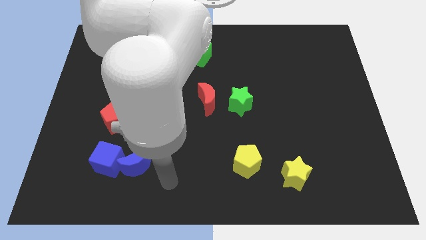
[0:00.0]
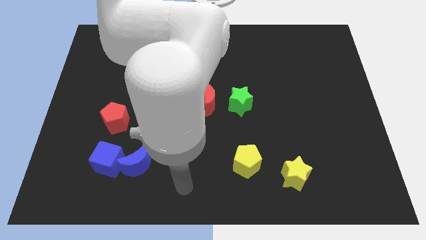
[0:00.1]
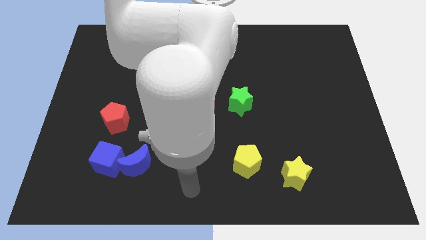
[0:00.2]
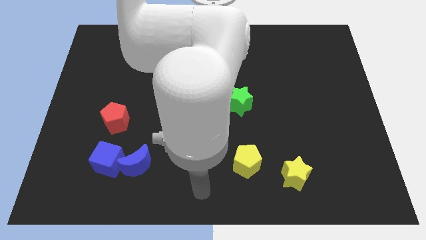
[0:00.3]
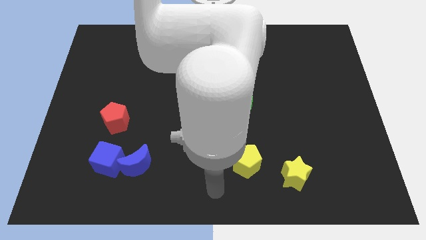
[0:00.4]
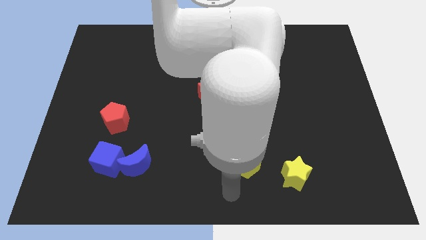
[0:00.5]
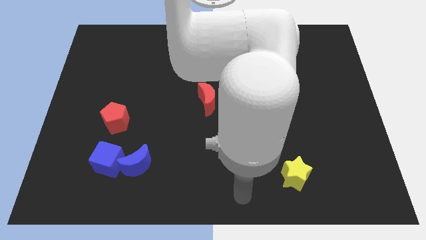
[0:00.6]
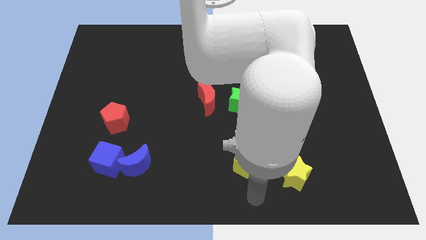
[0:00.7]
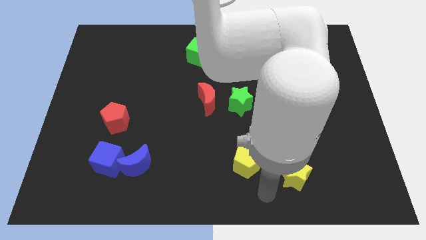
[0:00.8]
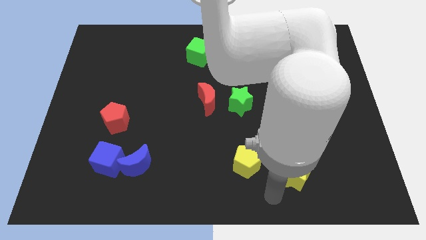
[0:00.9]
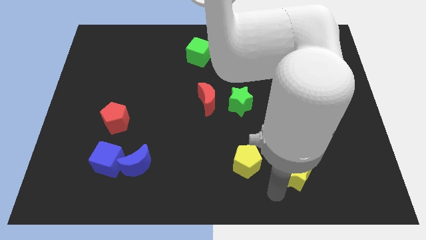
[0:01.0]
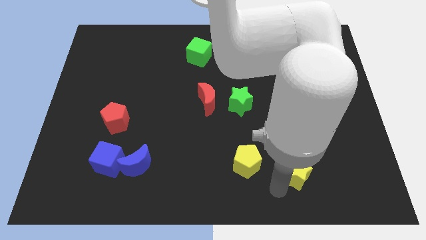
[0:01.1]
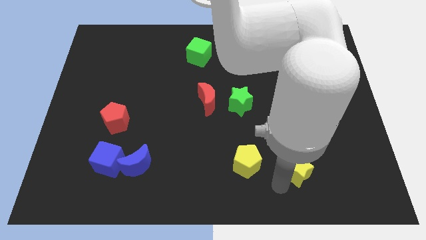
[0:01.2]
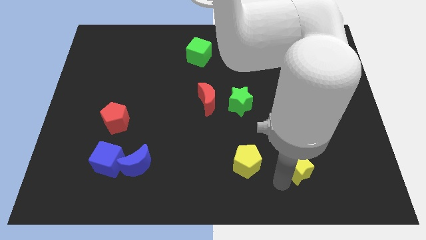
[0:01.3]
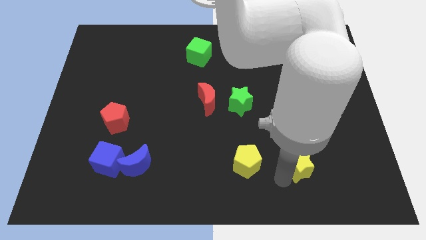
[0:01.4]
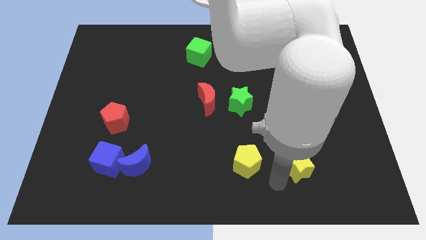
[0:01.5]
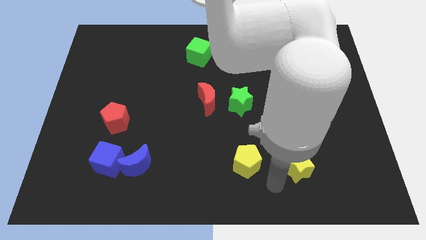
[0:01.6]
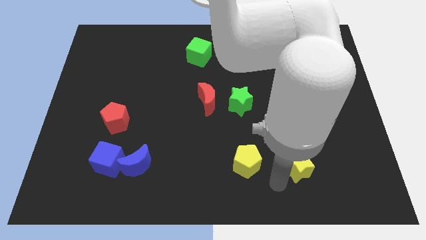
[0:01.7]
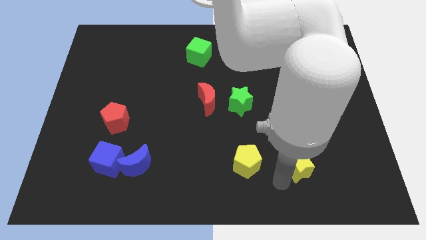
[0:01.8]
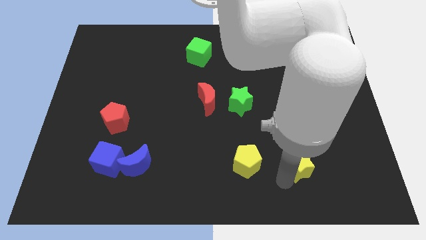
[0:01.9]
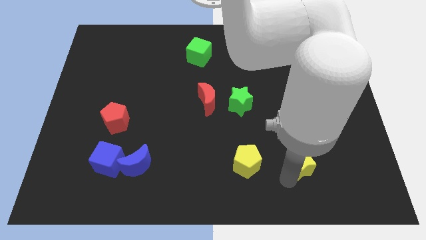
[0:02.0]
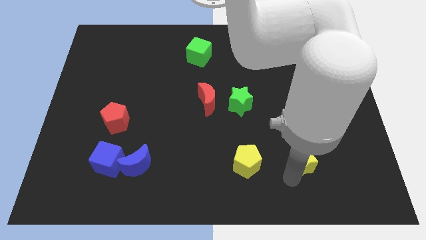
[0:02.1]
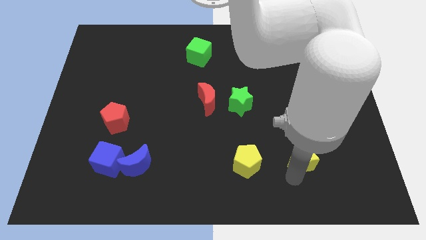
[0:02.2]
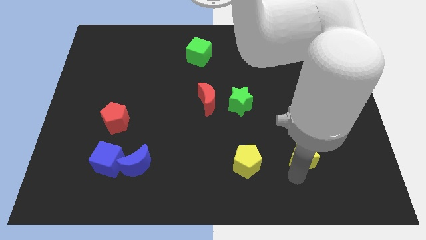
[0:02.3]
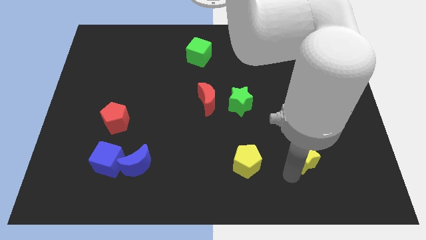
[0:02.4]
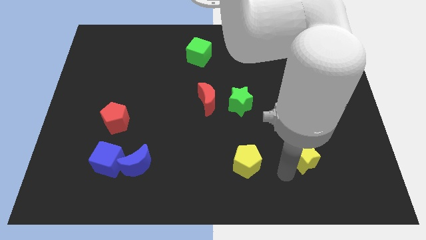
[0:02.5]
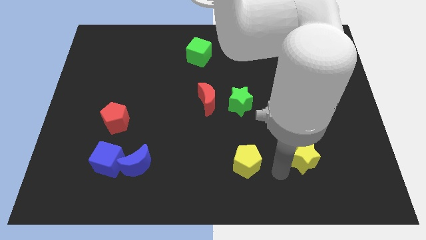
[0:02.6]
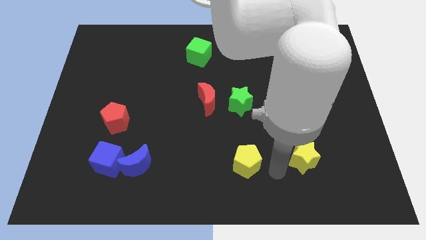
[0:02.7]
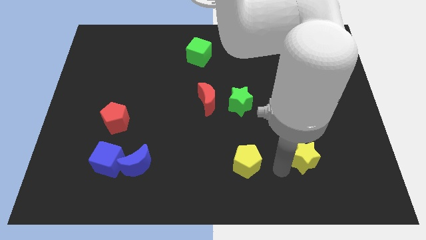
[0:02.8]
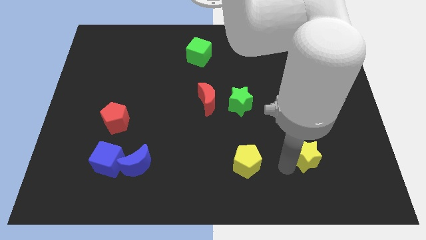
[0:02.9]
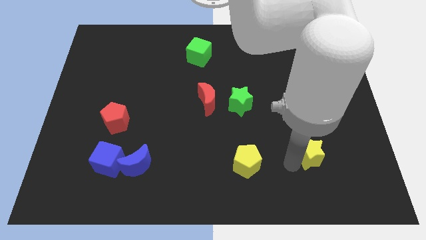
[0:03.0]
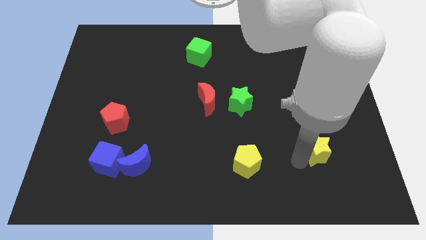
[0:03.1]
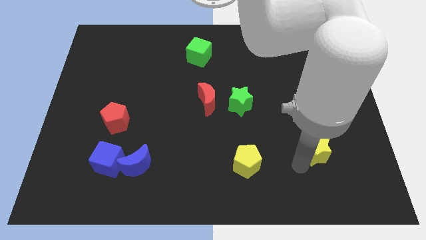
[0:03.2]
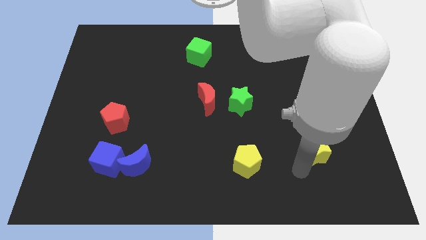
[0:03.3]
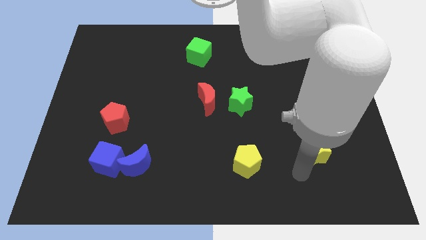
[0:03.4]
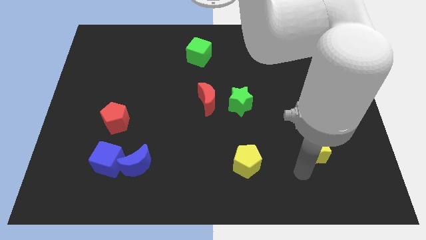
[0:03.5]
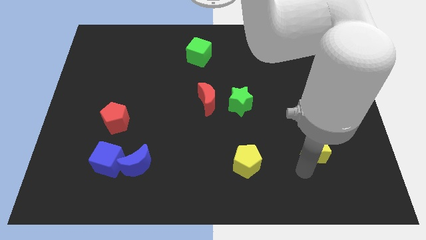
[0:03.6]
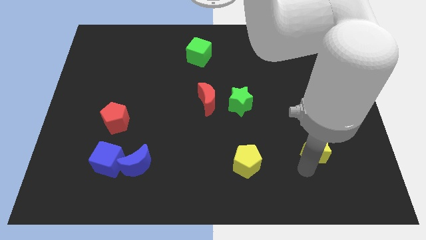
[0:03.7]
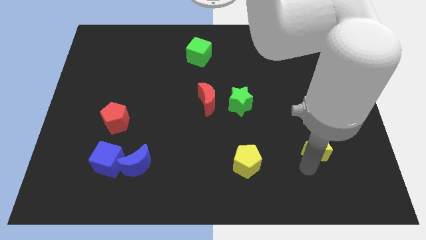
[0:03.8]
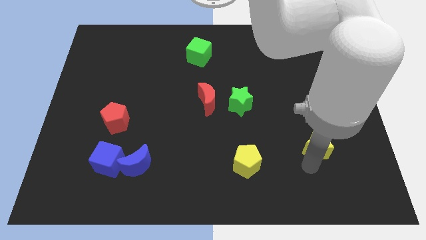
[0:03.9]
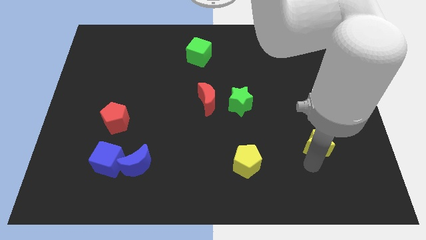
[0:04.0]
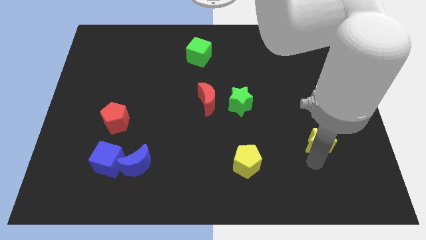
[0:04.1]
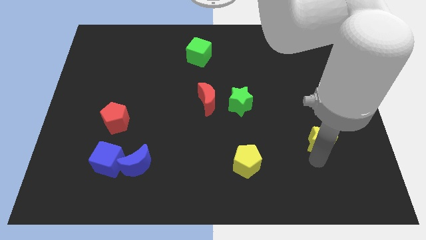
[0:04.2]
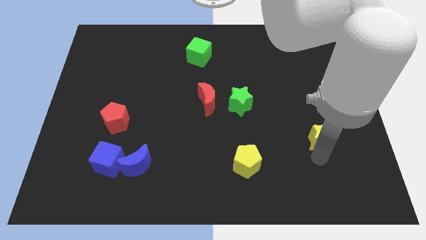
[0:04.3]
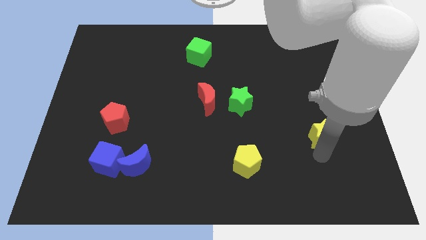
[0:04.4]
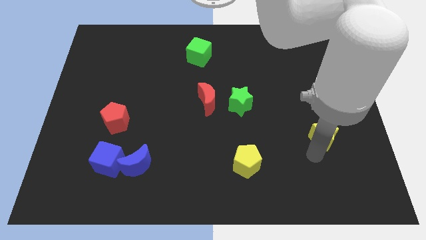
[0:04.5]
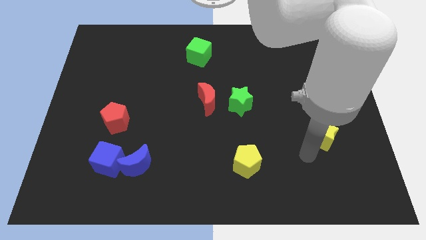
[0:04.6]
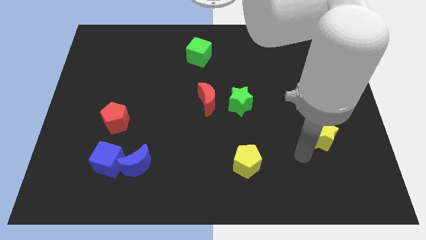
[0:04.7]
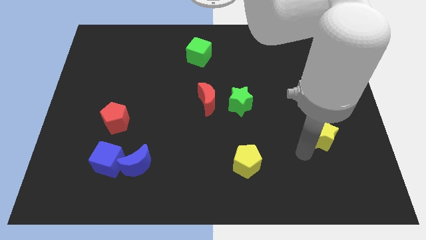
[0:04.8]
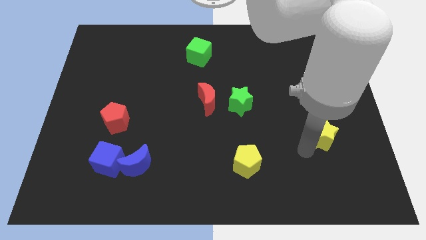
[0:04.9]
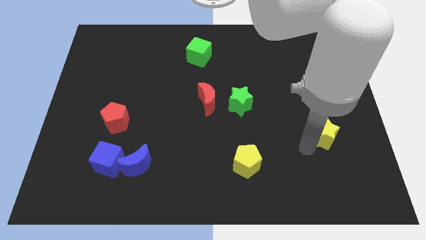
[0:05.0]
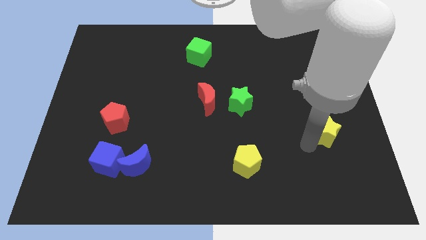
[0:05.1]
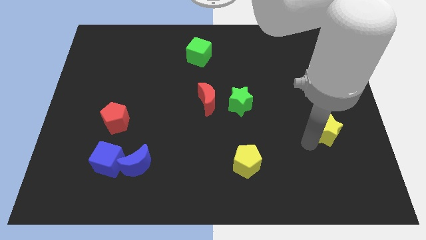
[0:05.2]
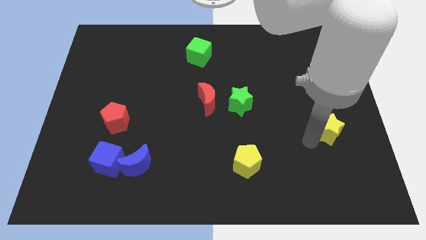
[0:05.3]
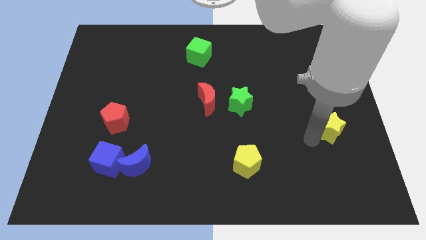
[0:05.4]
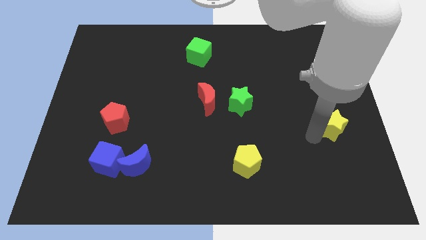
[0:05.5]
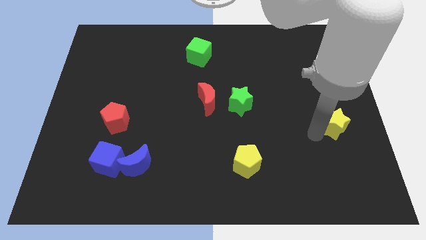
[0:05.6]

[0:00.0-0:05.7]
push the yellow star to the right side of the board

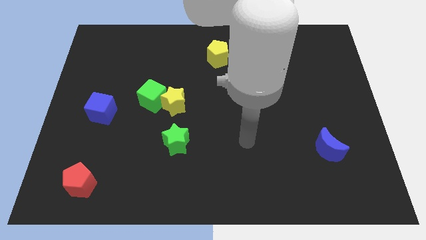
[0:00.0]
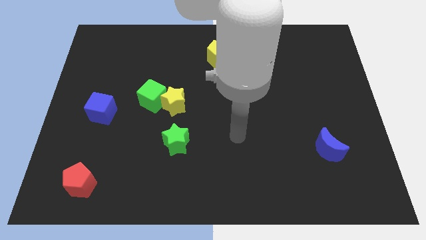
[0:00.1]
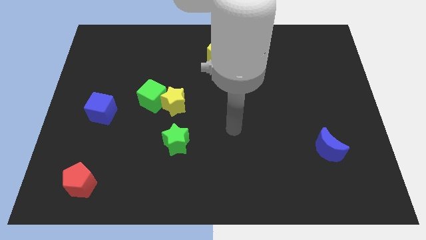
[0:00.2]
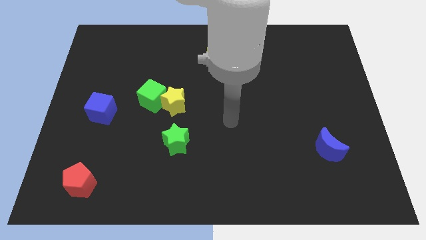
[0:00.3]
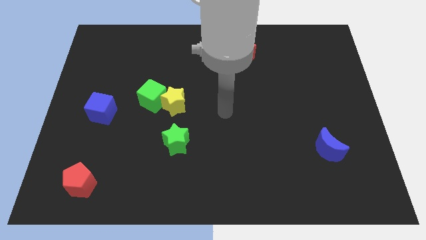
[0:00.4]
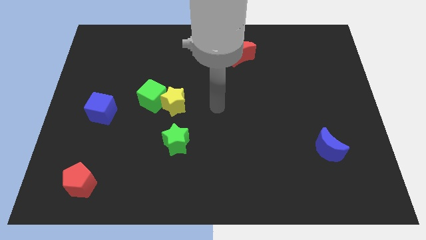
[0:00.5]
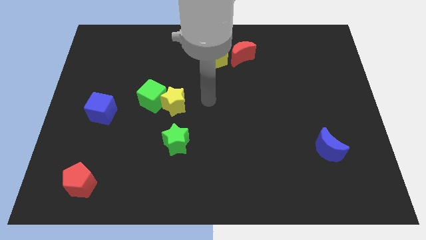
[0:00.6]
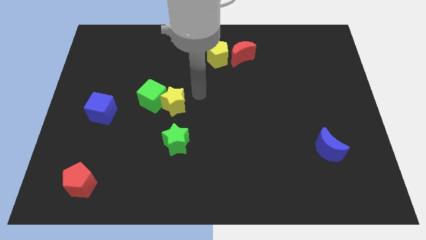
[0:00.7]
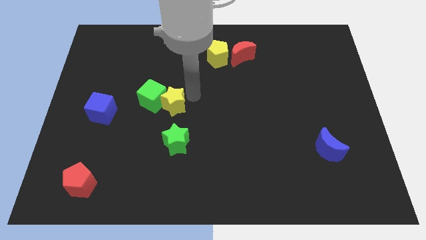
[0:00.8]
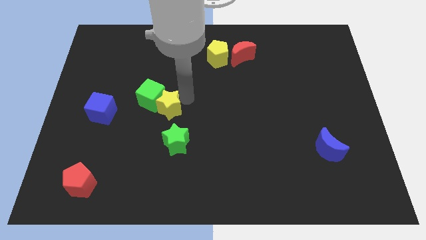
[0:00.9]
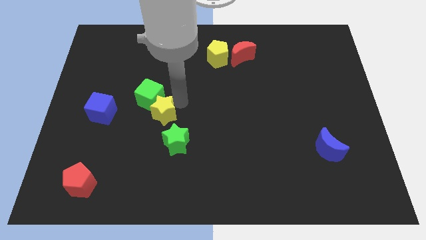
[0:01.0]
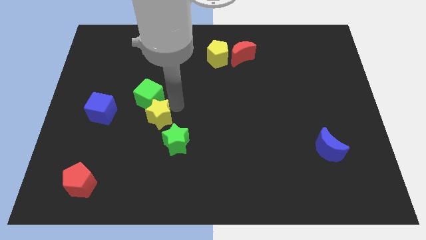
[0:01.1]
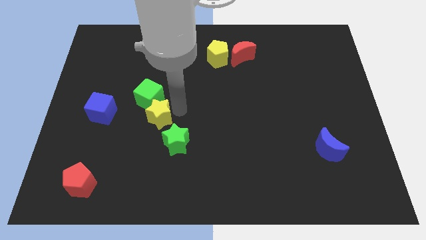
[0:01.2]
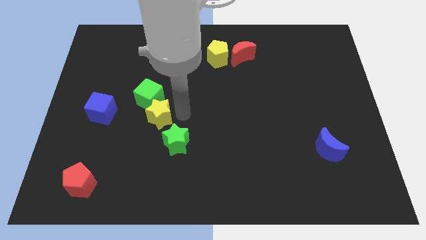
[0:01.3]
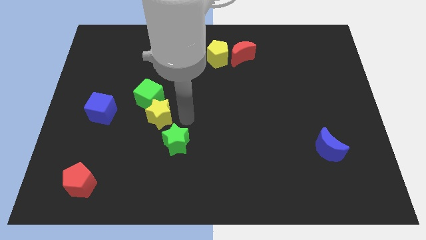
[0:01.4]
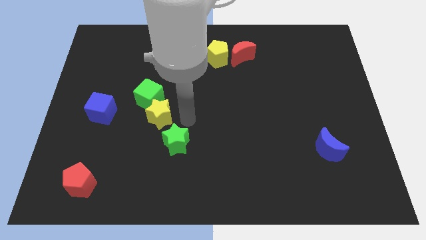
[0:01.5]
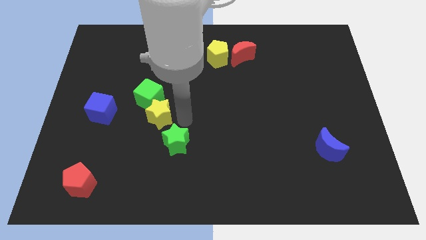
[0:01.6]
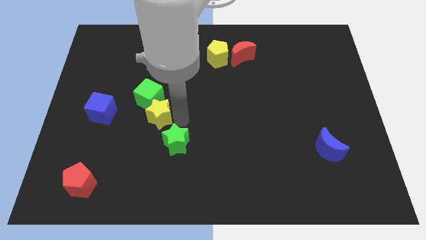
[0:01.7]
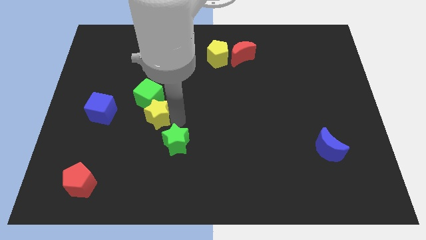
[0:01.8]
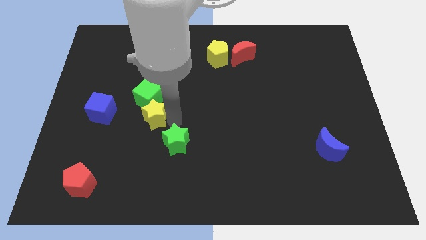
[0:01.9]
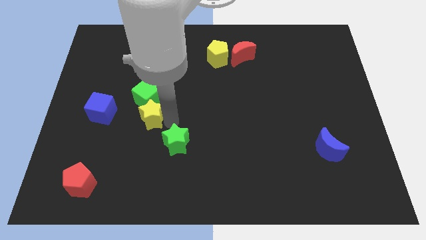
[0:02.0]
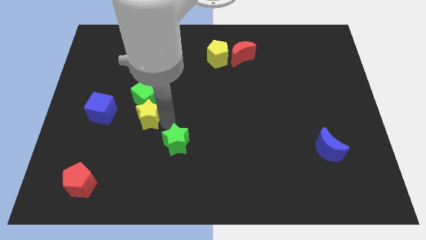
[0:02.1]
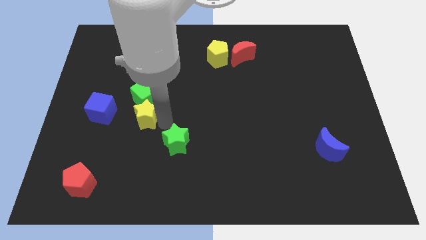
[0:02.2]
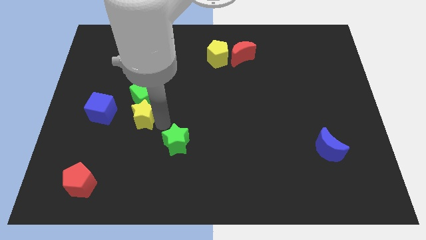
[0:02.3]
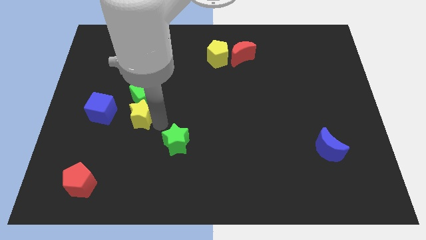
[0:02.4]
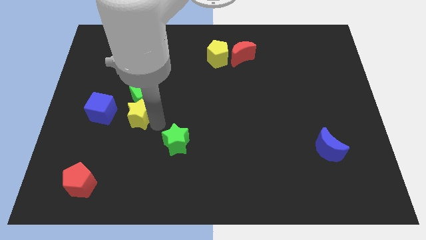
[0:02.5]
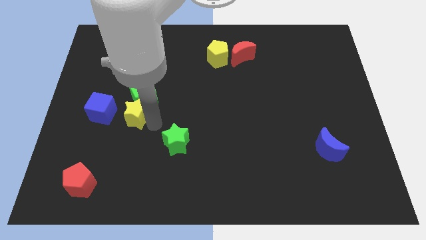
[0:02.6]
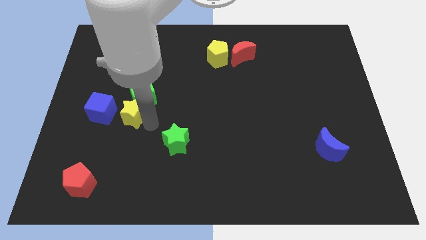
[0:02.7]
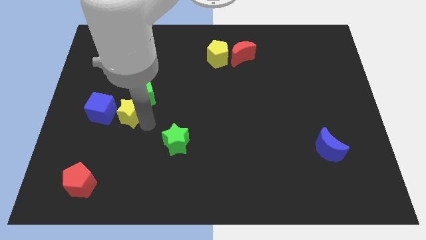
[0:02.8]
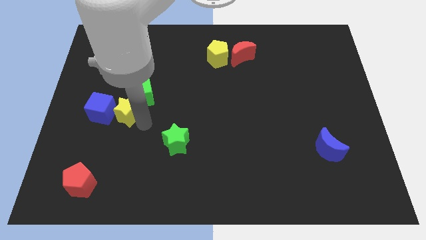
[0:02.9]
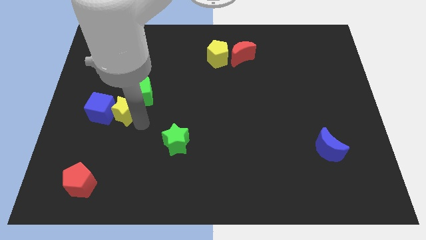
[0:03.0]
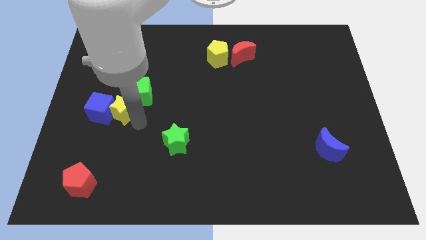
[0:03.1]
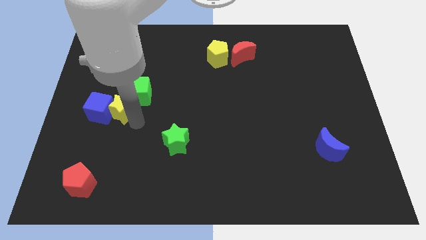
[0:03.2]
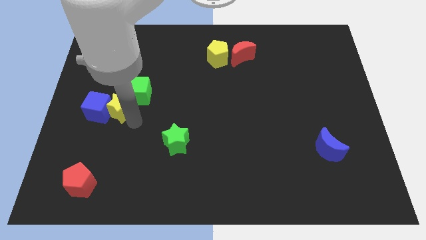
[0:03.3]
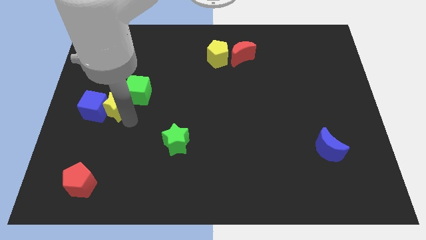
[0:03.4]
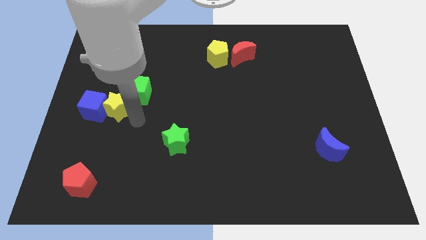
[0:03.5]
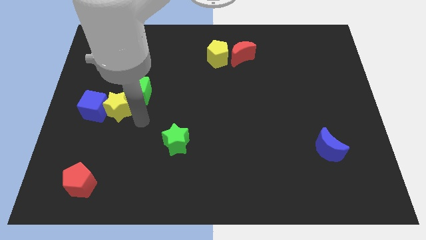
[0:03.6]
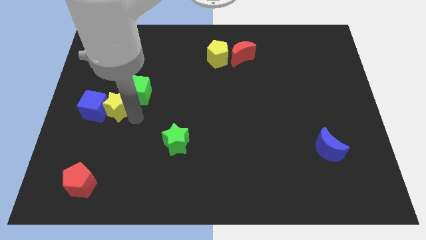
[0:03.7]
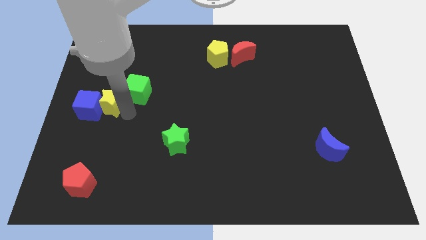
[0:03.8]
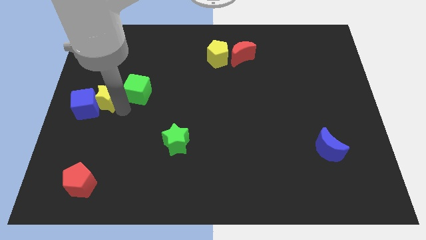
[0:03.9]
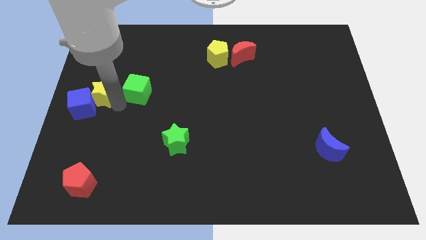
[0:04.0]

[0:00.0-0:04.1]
slide the yellow star to the left side
